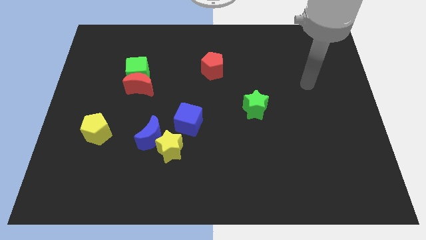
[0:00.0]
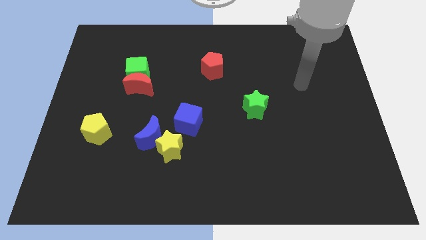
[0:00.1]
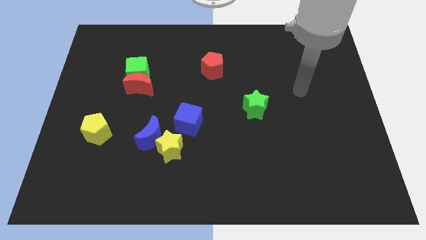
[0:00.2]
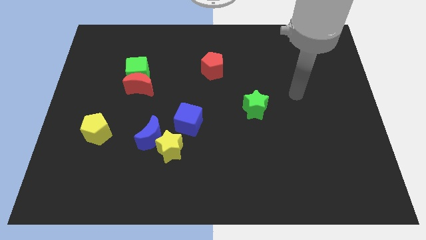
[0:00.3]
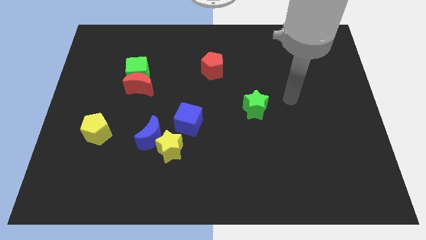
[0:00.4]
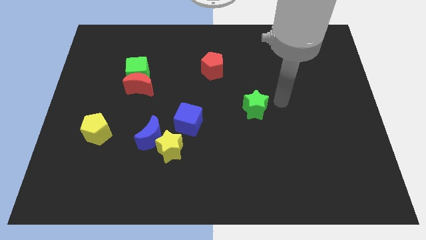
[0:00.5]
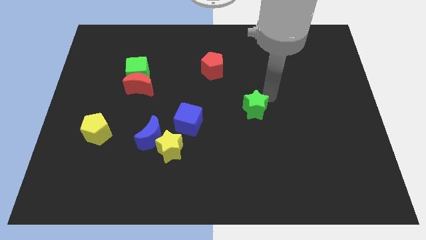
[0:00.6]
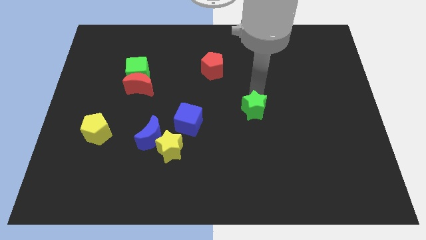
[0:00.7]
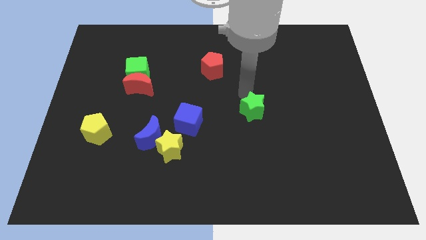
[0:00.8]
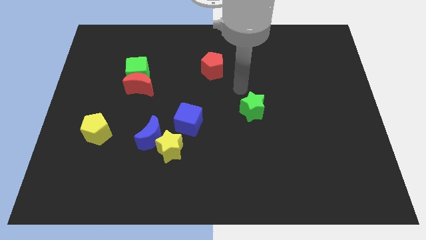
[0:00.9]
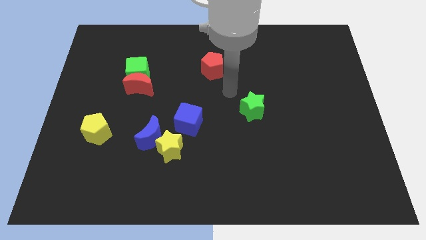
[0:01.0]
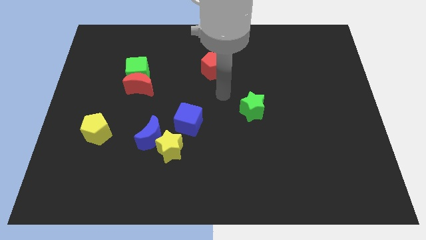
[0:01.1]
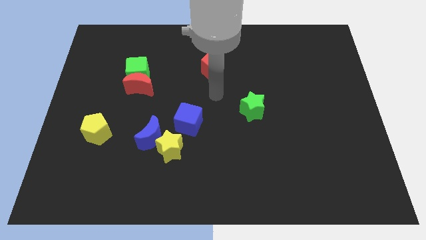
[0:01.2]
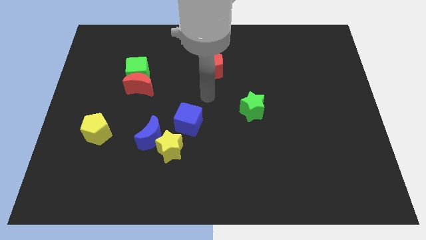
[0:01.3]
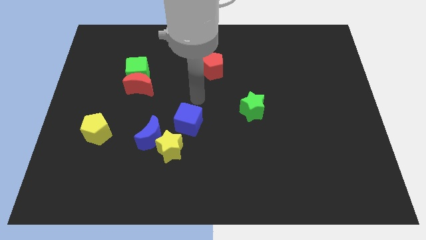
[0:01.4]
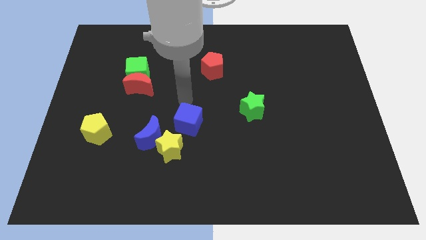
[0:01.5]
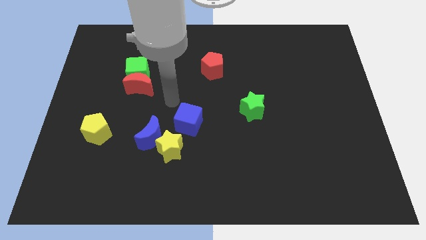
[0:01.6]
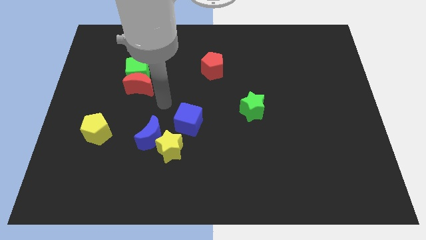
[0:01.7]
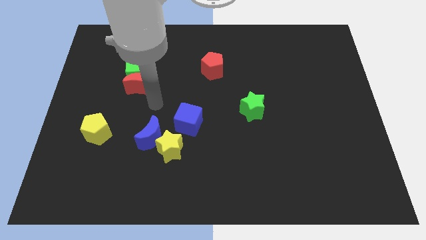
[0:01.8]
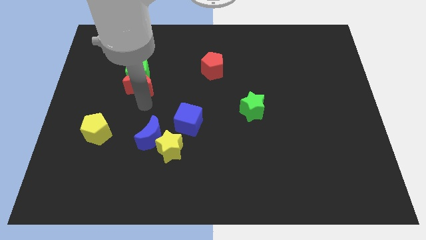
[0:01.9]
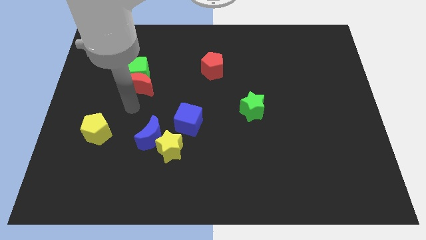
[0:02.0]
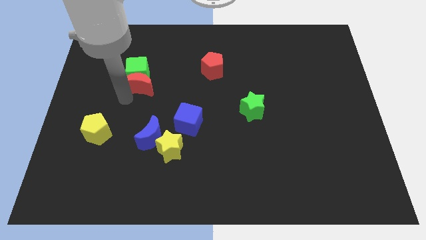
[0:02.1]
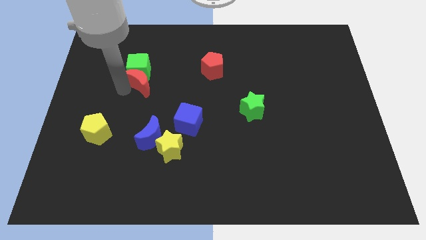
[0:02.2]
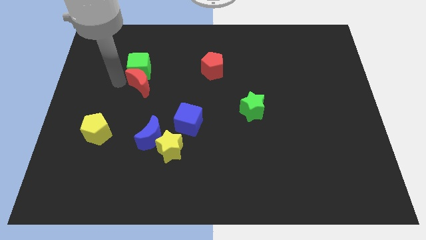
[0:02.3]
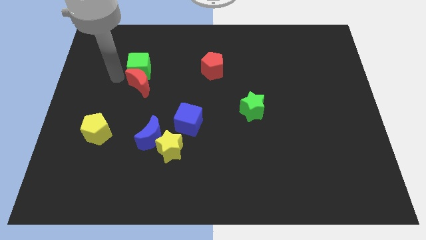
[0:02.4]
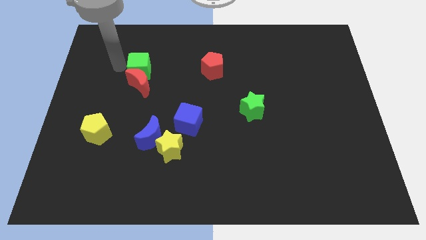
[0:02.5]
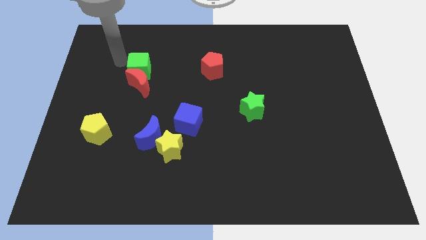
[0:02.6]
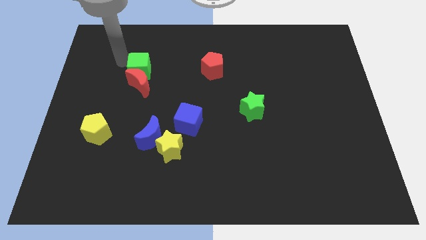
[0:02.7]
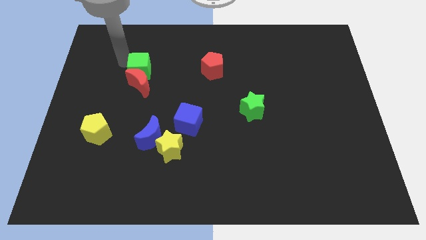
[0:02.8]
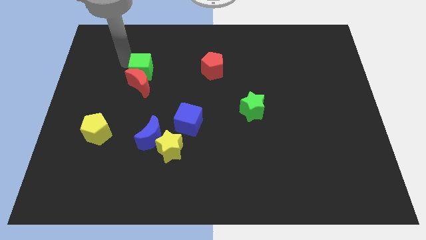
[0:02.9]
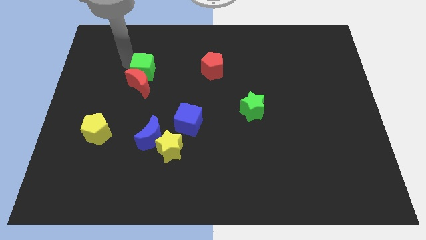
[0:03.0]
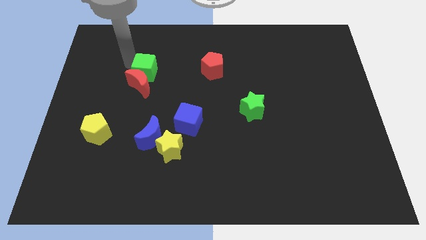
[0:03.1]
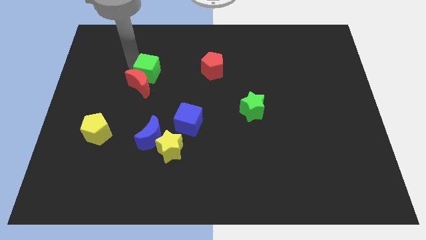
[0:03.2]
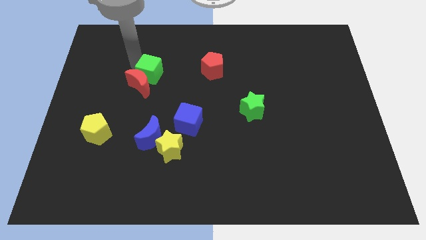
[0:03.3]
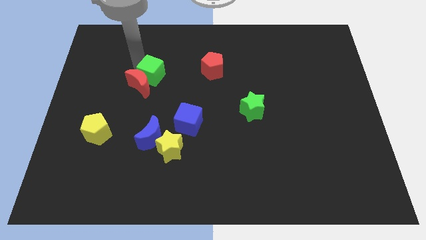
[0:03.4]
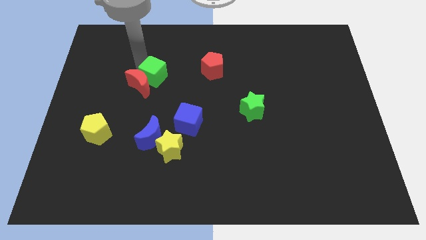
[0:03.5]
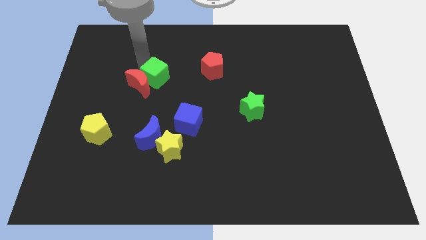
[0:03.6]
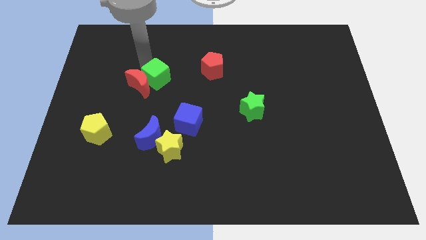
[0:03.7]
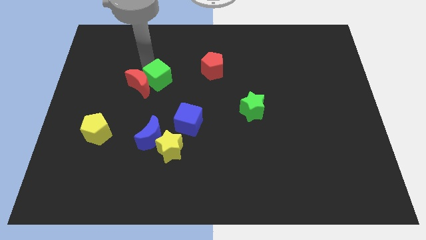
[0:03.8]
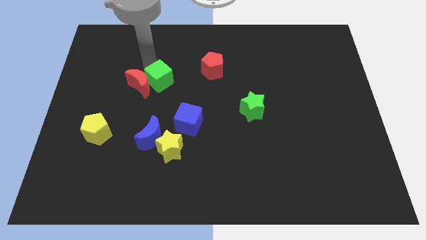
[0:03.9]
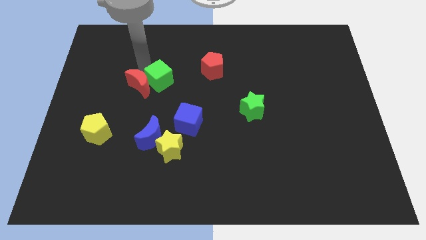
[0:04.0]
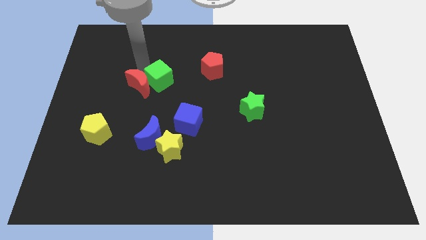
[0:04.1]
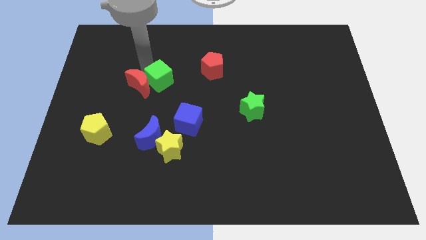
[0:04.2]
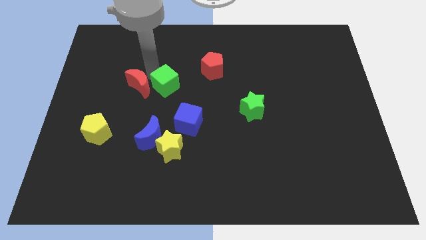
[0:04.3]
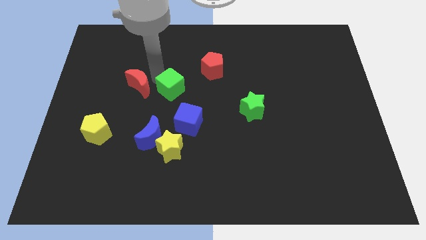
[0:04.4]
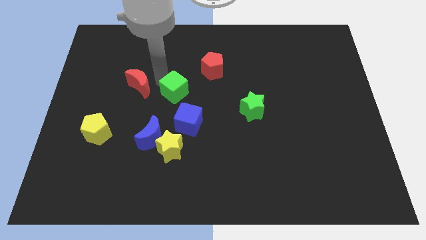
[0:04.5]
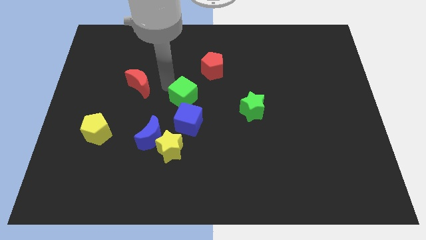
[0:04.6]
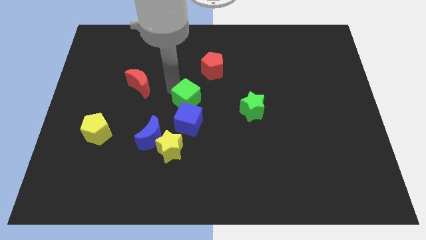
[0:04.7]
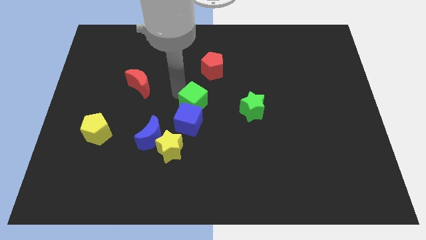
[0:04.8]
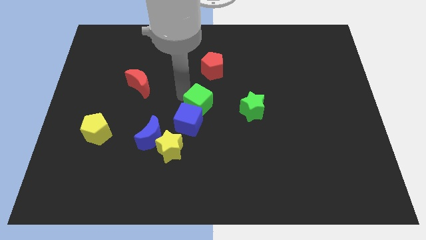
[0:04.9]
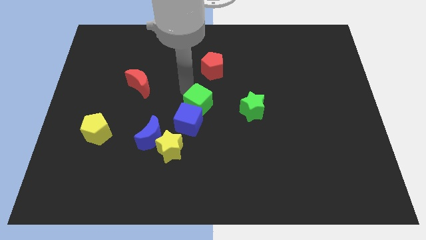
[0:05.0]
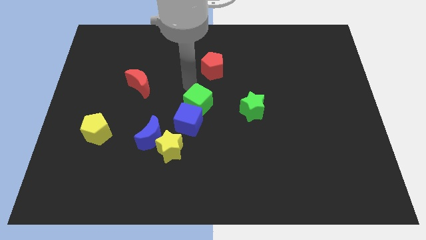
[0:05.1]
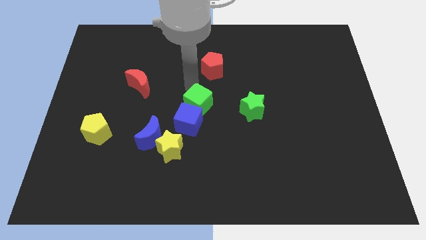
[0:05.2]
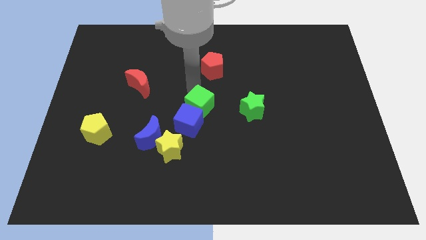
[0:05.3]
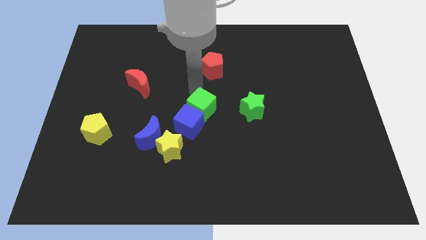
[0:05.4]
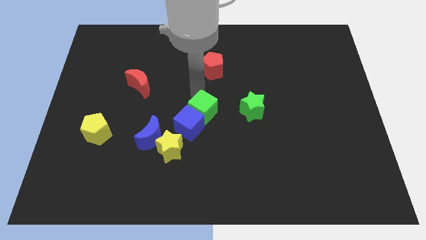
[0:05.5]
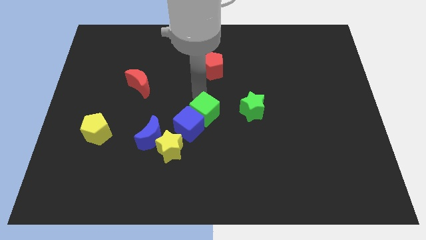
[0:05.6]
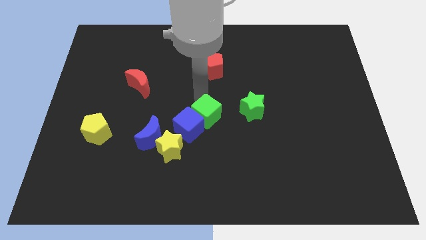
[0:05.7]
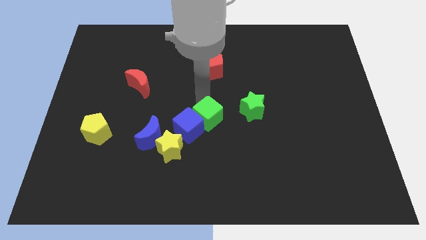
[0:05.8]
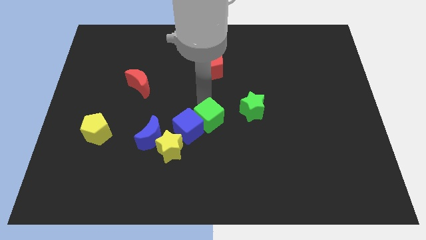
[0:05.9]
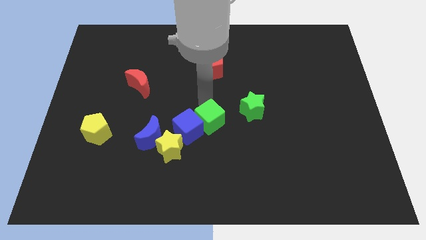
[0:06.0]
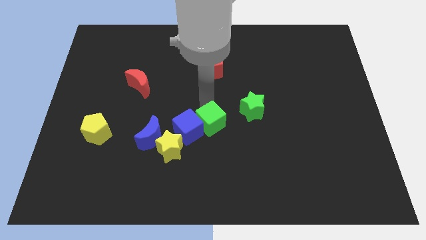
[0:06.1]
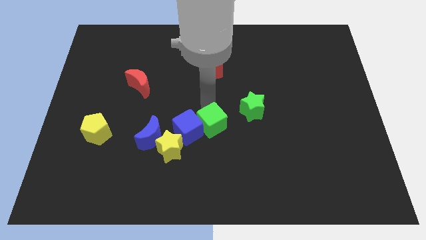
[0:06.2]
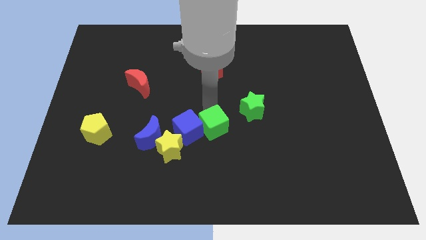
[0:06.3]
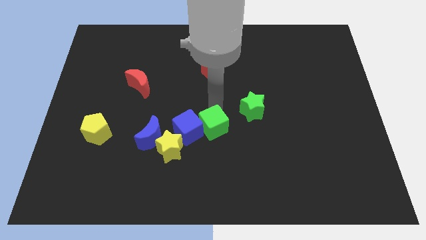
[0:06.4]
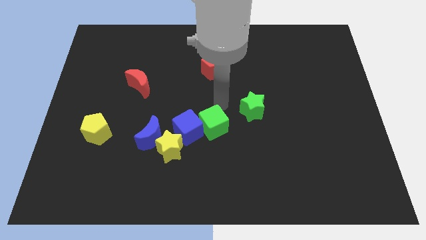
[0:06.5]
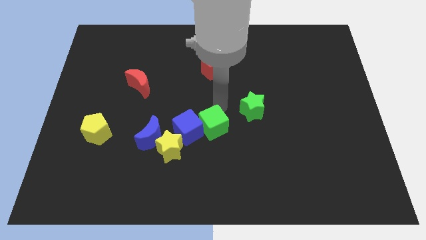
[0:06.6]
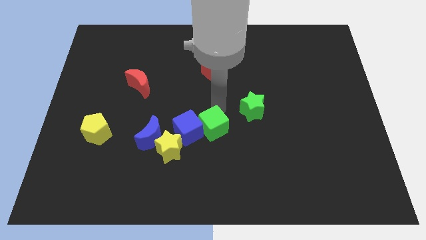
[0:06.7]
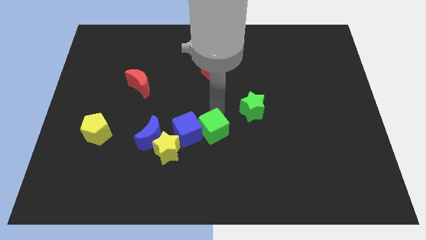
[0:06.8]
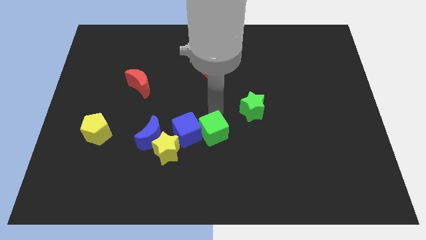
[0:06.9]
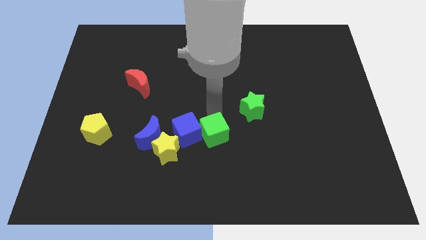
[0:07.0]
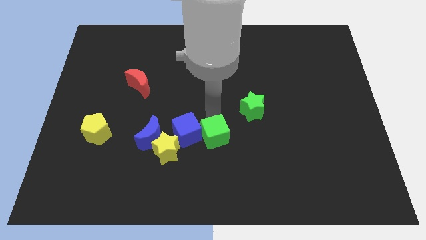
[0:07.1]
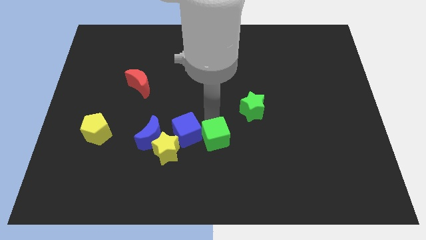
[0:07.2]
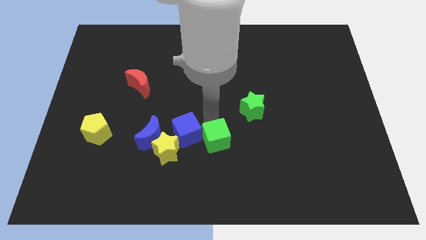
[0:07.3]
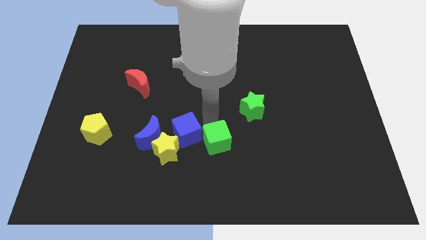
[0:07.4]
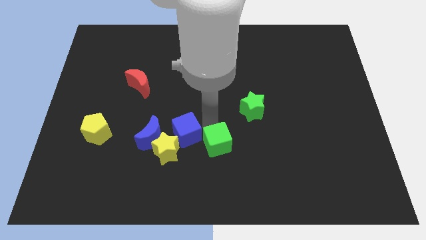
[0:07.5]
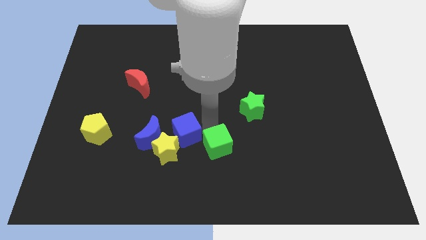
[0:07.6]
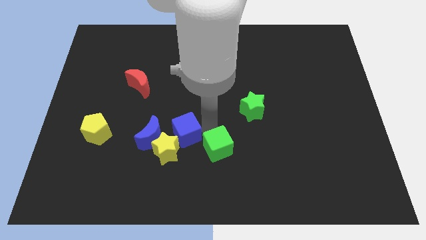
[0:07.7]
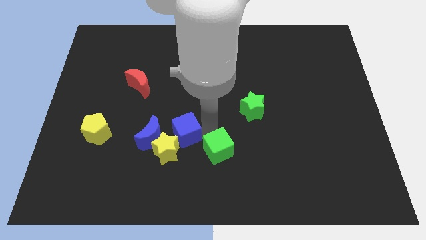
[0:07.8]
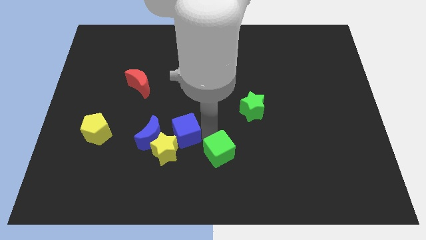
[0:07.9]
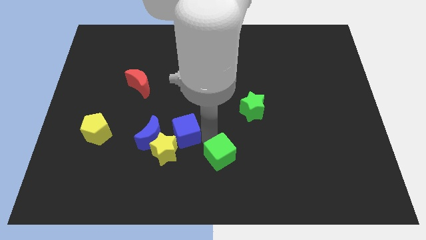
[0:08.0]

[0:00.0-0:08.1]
slide the green cube to the bottom
